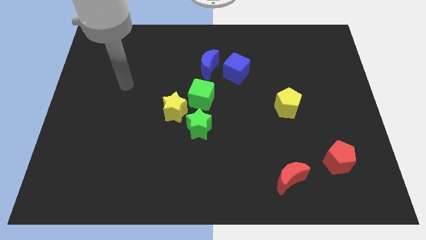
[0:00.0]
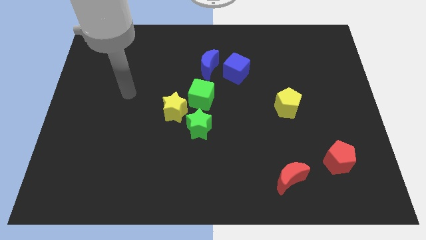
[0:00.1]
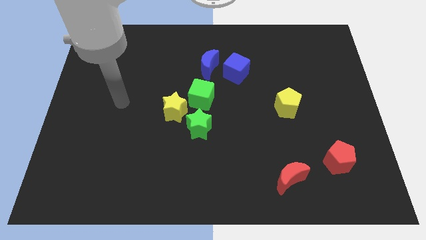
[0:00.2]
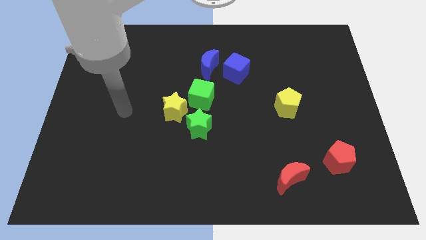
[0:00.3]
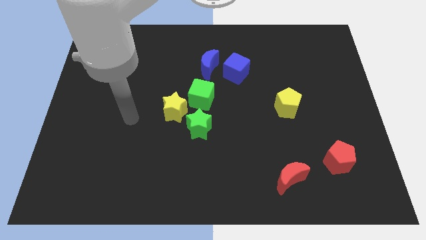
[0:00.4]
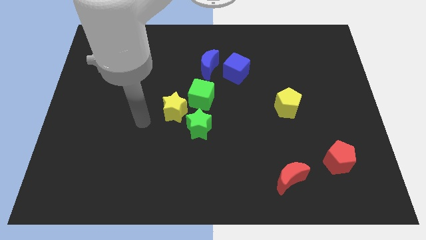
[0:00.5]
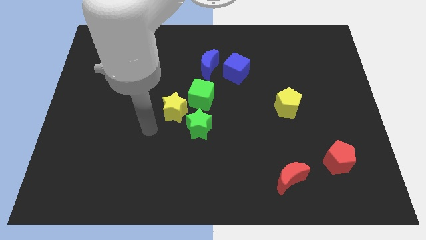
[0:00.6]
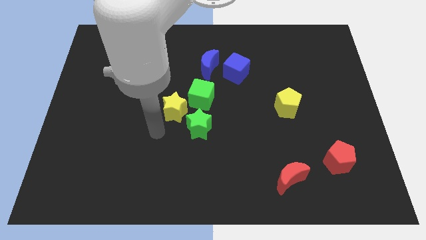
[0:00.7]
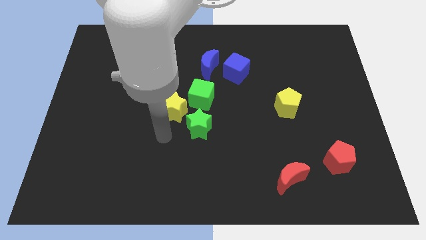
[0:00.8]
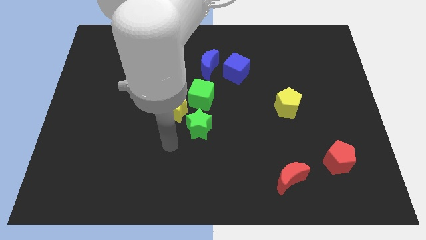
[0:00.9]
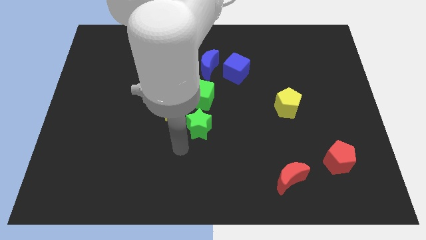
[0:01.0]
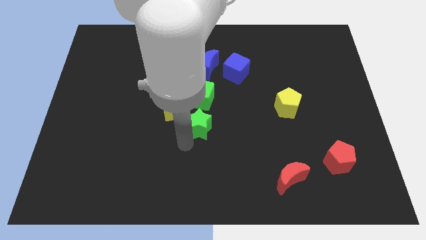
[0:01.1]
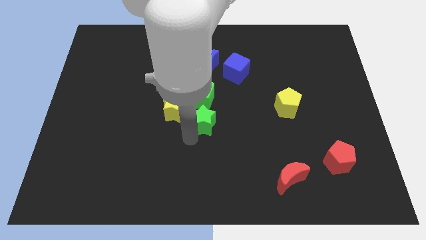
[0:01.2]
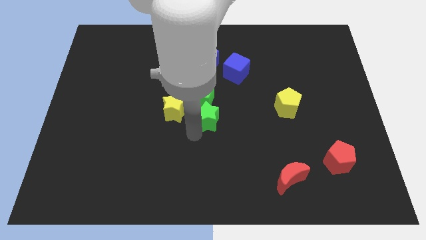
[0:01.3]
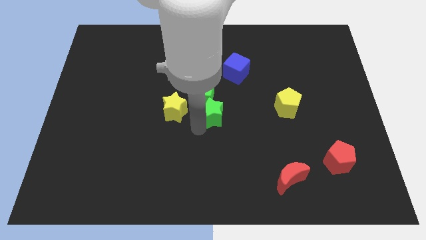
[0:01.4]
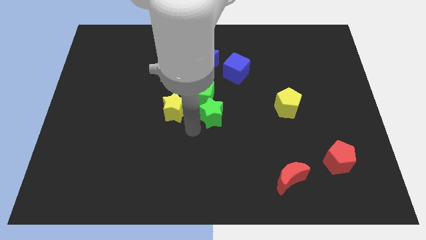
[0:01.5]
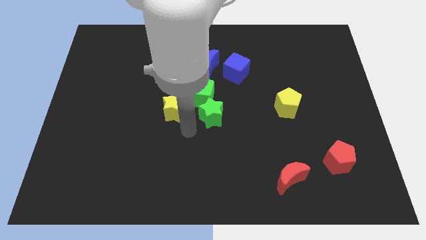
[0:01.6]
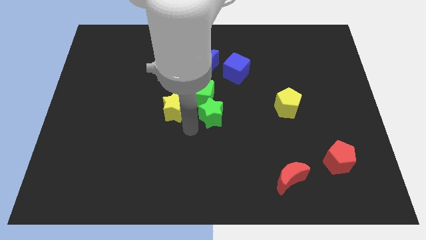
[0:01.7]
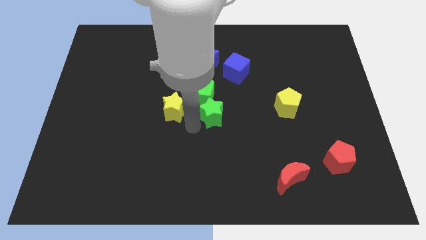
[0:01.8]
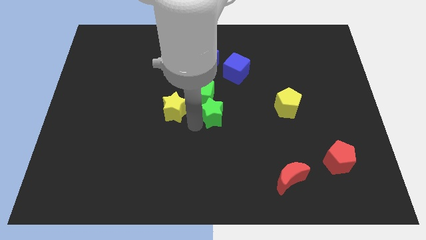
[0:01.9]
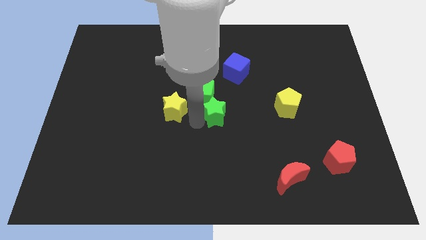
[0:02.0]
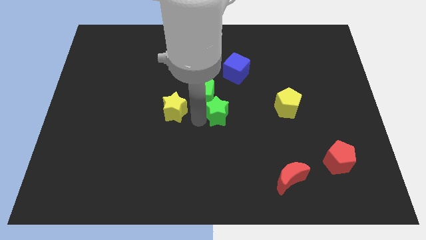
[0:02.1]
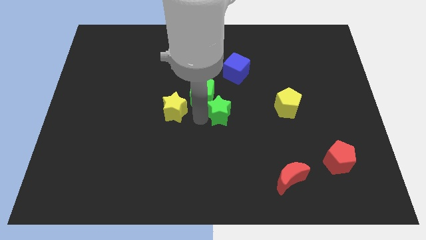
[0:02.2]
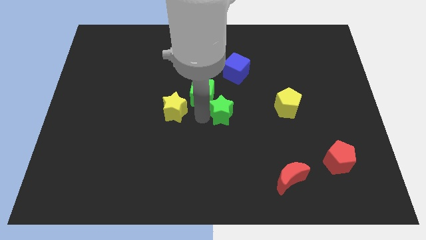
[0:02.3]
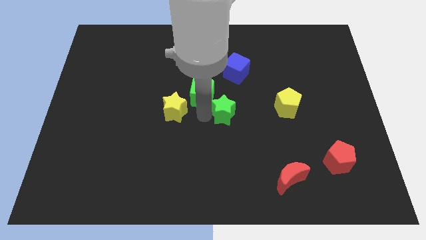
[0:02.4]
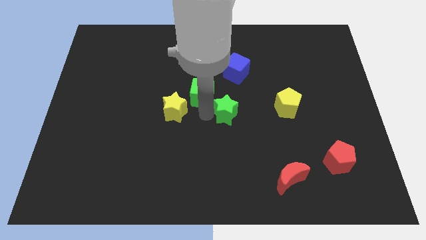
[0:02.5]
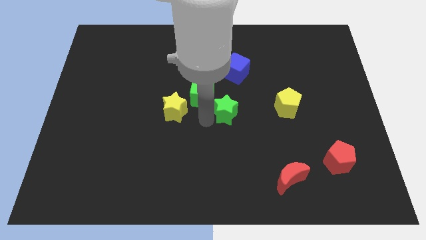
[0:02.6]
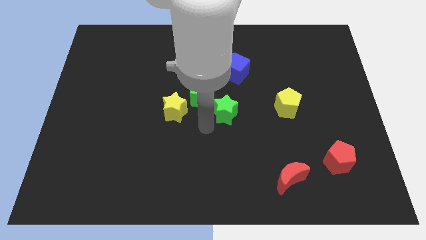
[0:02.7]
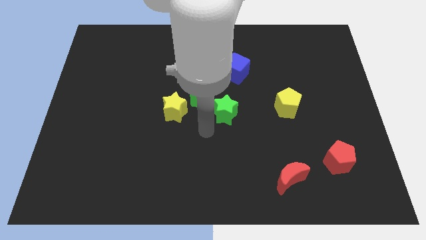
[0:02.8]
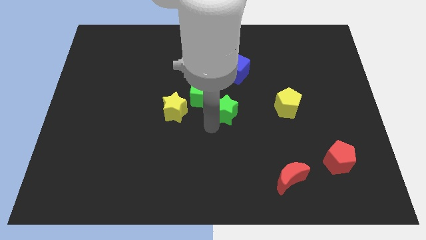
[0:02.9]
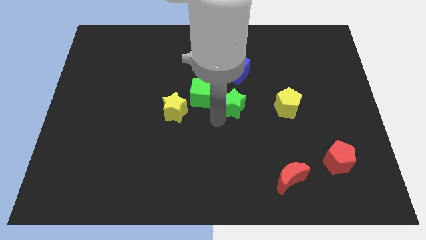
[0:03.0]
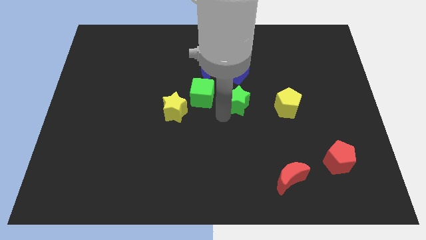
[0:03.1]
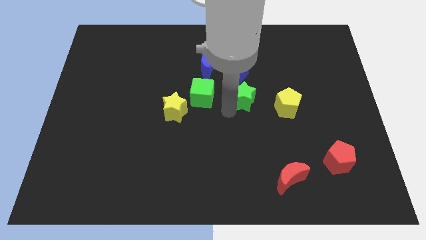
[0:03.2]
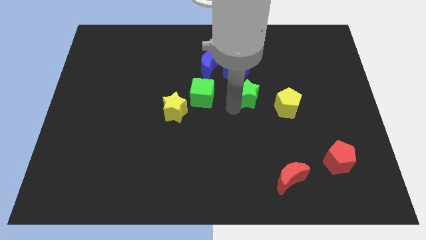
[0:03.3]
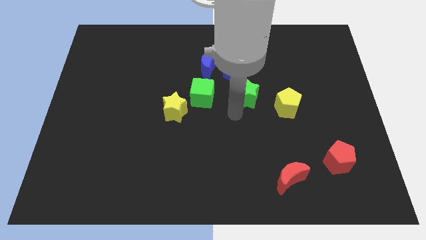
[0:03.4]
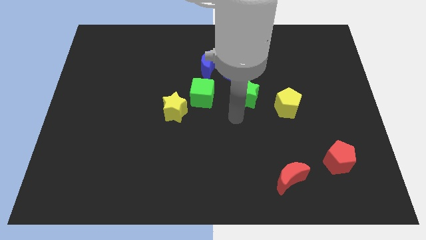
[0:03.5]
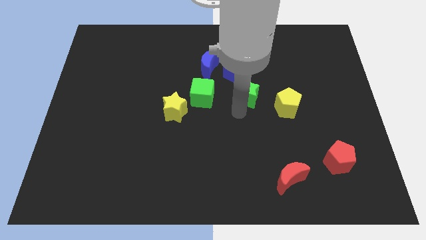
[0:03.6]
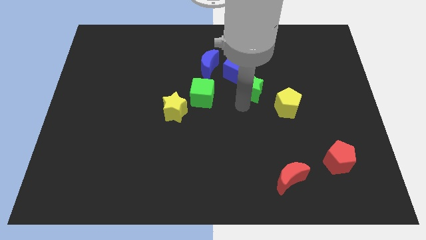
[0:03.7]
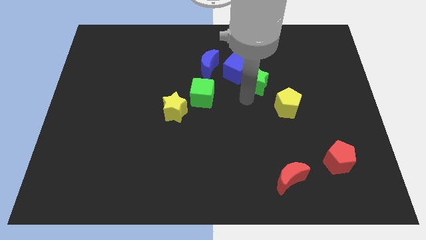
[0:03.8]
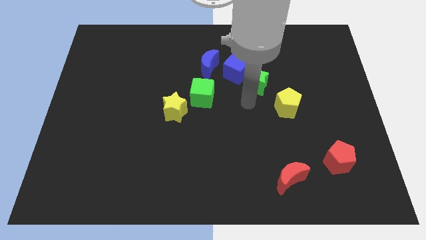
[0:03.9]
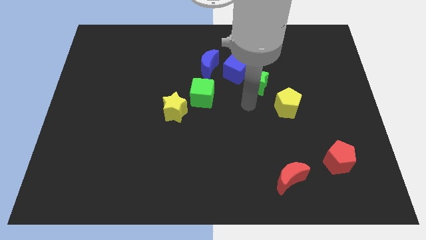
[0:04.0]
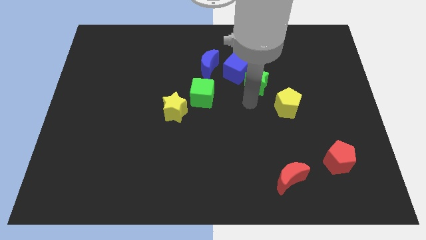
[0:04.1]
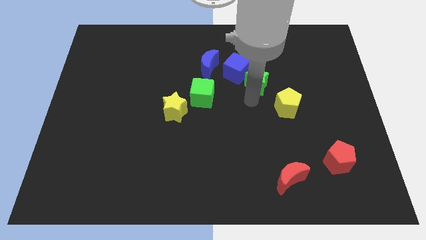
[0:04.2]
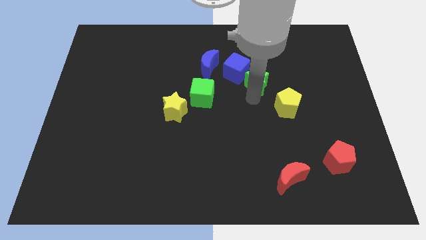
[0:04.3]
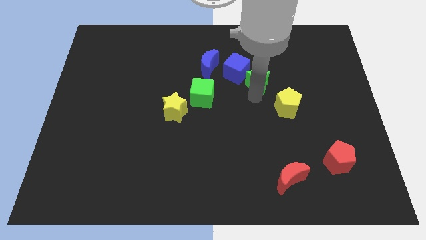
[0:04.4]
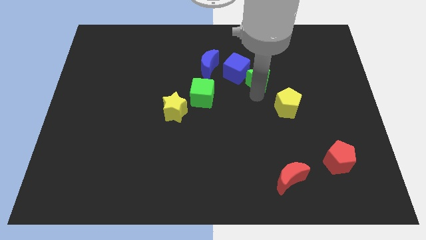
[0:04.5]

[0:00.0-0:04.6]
move the green star up and right

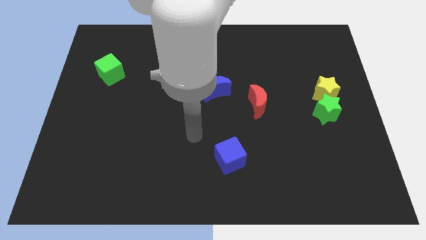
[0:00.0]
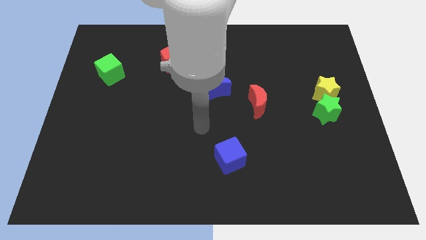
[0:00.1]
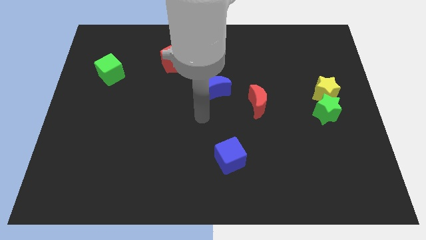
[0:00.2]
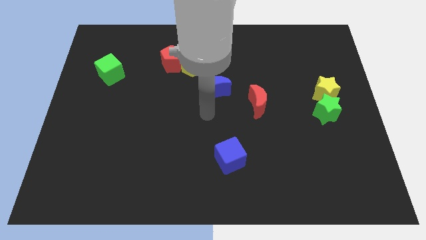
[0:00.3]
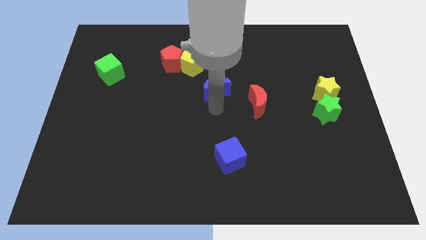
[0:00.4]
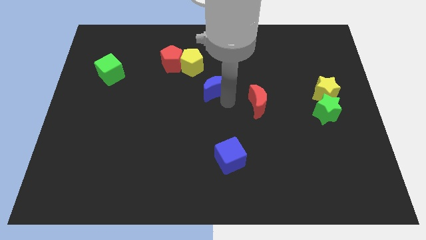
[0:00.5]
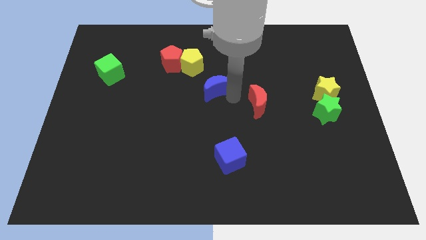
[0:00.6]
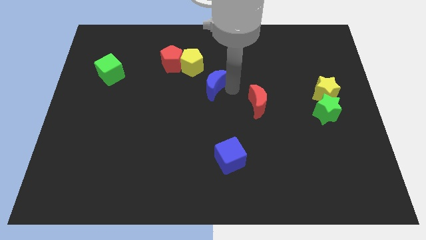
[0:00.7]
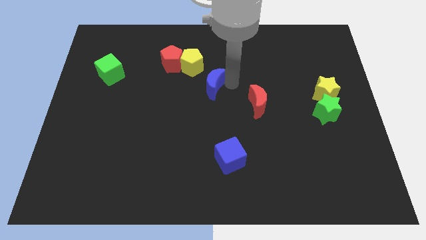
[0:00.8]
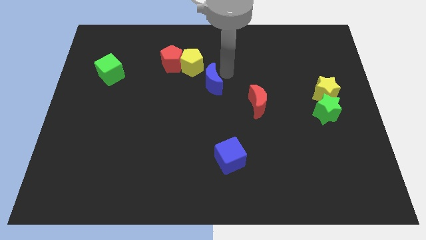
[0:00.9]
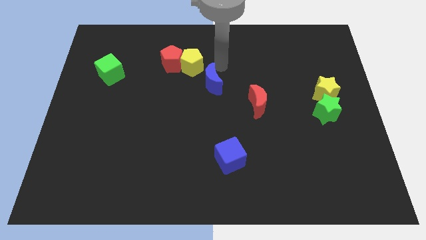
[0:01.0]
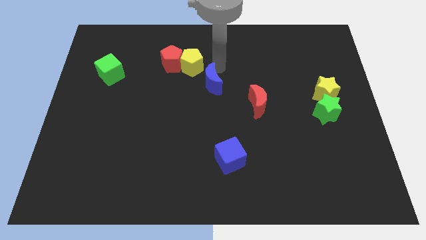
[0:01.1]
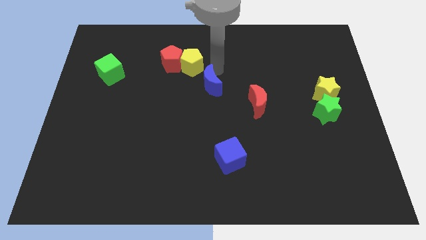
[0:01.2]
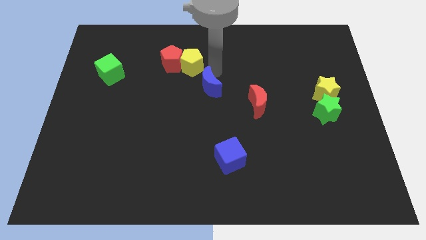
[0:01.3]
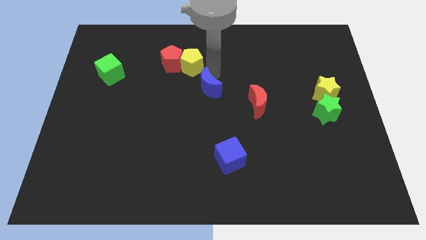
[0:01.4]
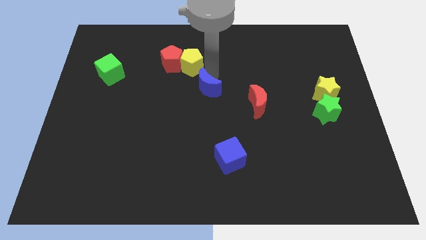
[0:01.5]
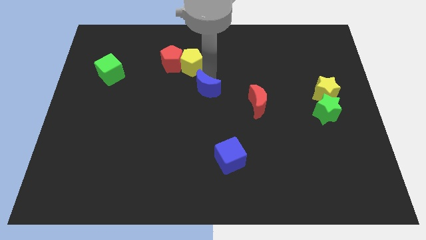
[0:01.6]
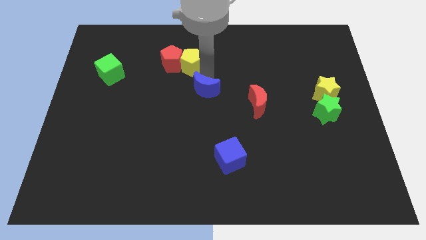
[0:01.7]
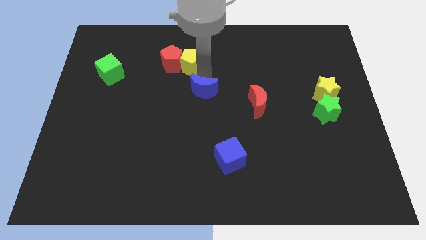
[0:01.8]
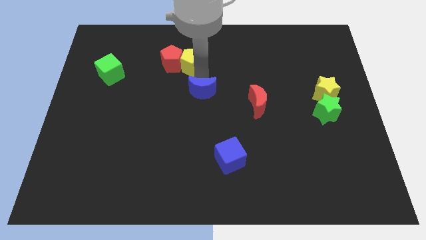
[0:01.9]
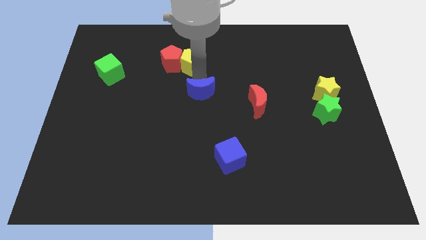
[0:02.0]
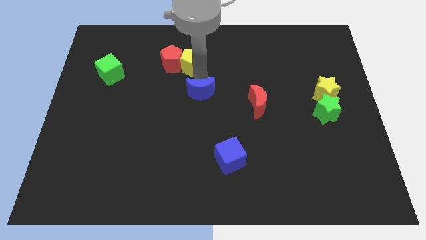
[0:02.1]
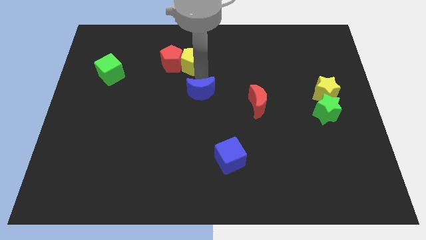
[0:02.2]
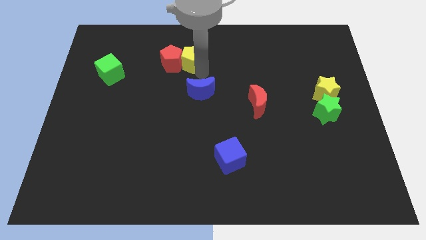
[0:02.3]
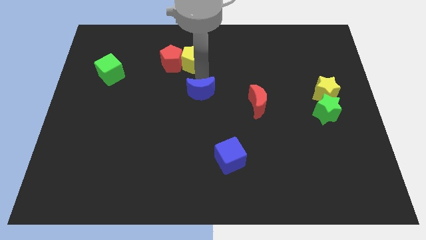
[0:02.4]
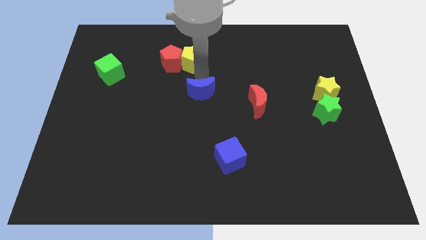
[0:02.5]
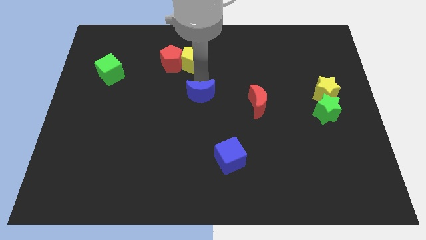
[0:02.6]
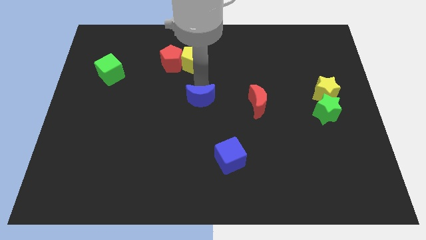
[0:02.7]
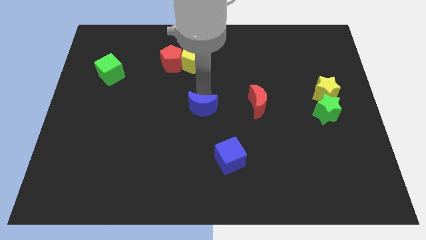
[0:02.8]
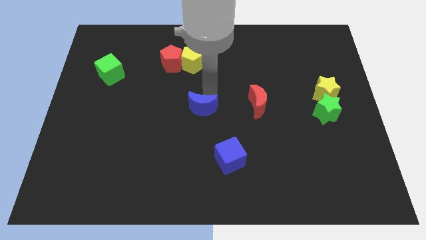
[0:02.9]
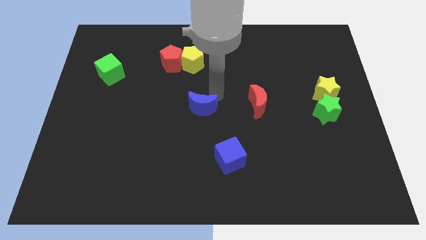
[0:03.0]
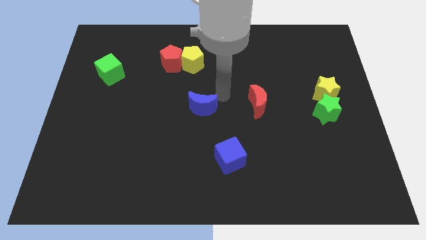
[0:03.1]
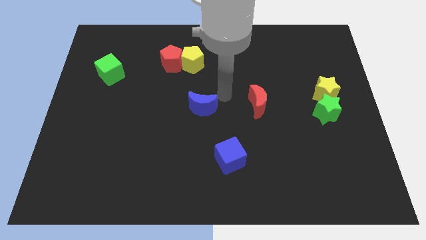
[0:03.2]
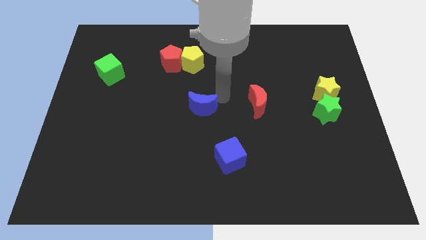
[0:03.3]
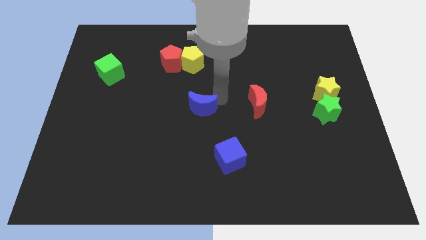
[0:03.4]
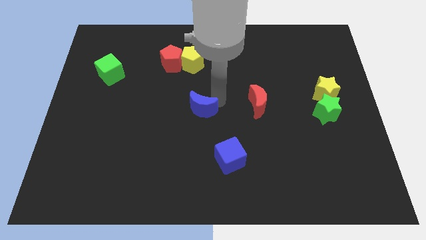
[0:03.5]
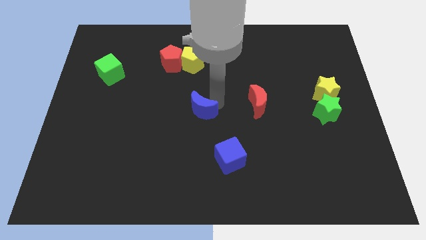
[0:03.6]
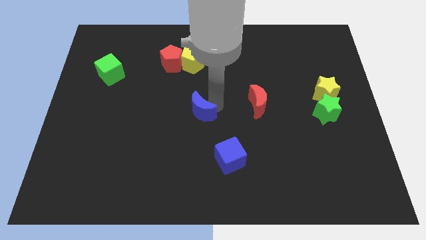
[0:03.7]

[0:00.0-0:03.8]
slightly push the blue moon downwards and left
